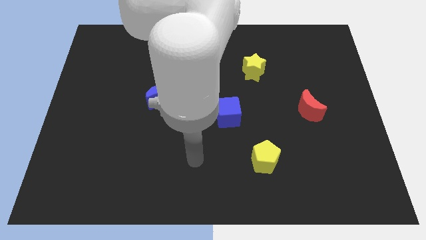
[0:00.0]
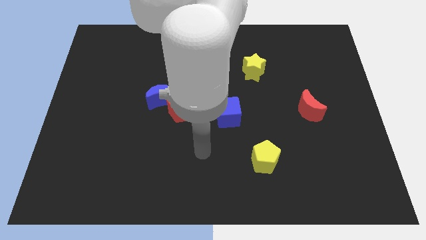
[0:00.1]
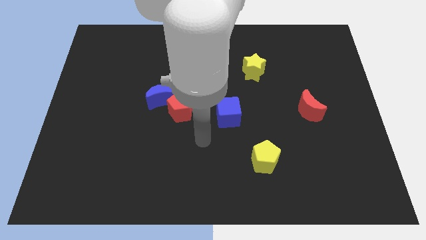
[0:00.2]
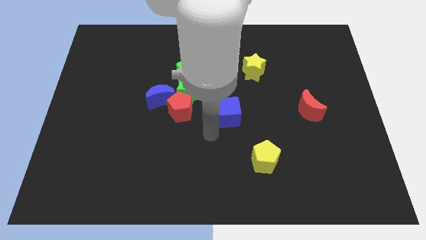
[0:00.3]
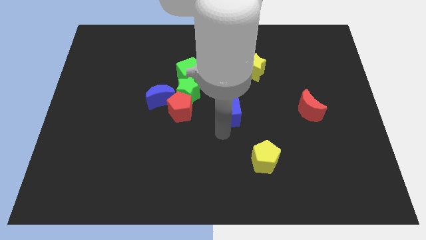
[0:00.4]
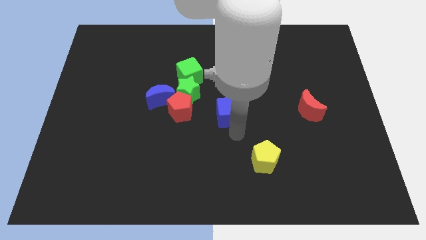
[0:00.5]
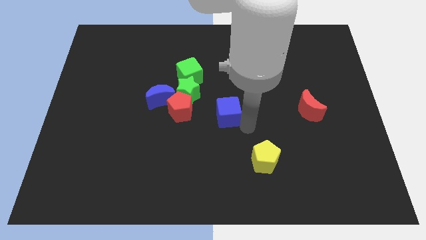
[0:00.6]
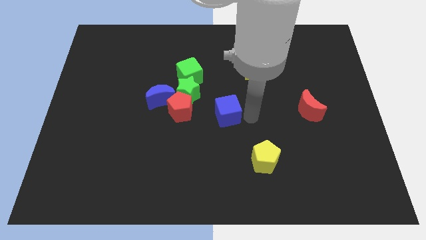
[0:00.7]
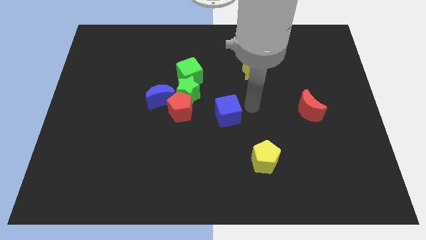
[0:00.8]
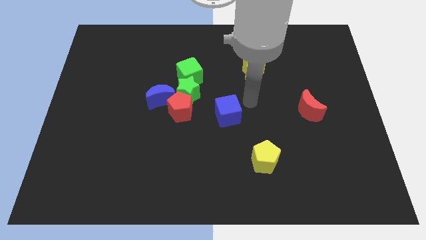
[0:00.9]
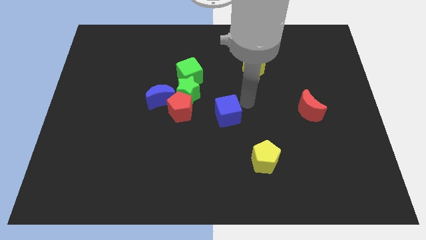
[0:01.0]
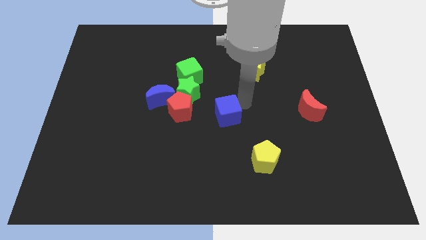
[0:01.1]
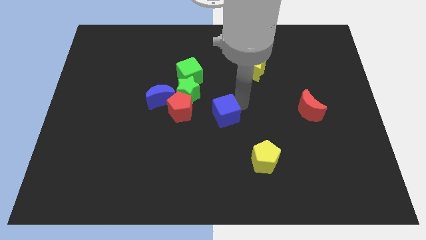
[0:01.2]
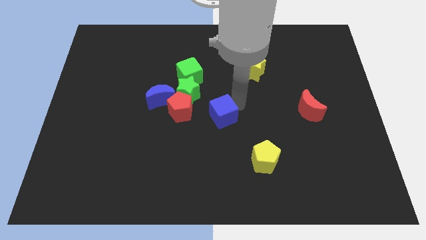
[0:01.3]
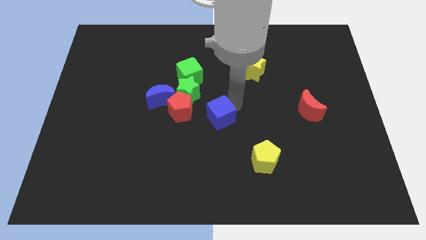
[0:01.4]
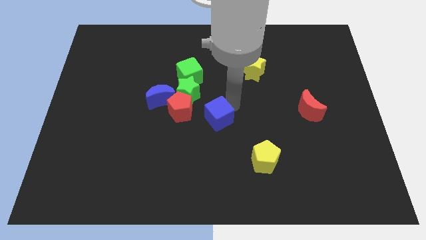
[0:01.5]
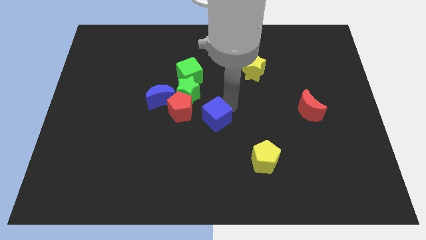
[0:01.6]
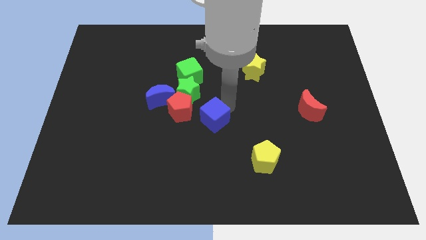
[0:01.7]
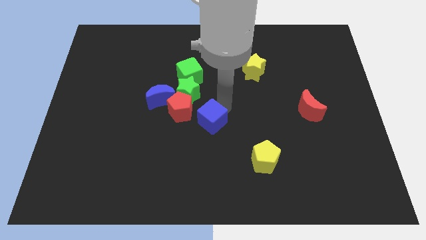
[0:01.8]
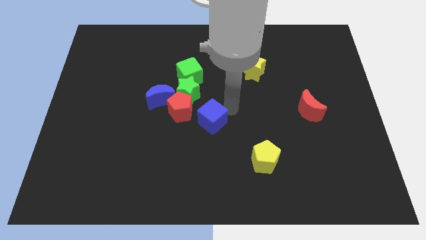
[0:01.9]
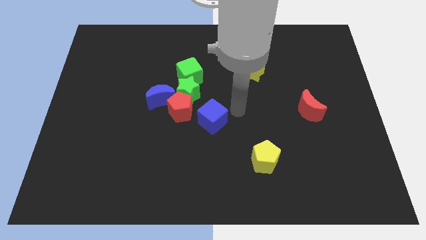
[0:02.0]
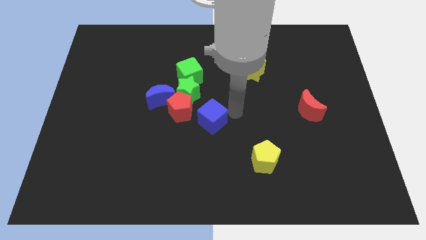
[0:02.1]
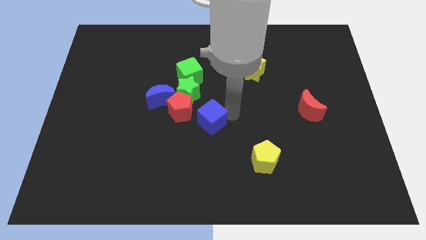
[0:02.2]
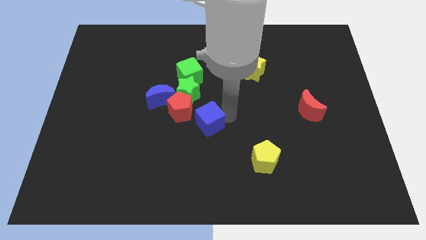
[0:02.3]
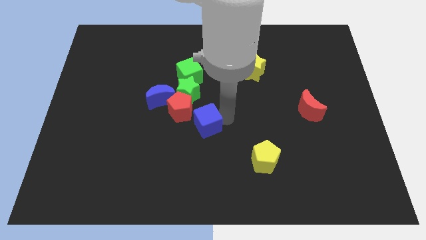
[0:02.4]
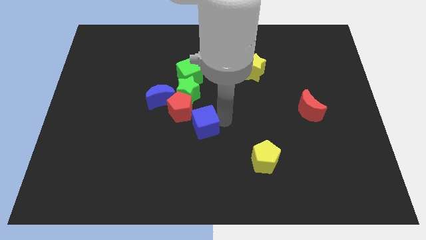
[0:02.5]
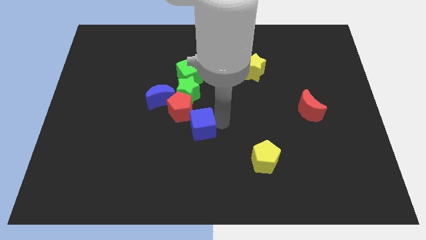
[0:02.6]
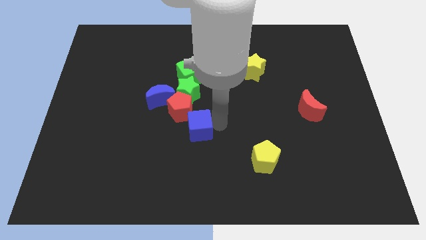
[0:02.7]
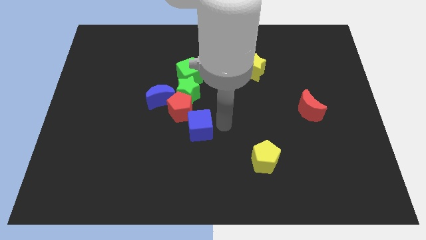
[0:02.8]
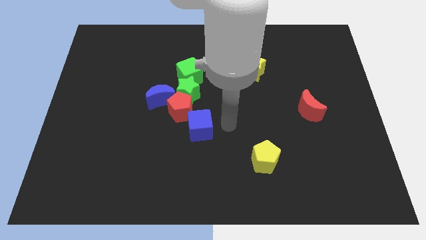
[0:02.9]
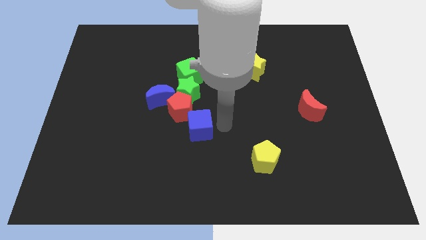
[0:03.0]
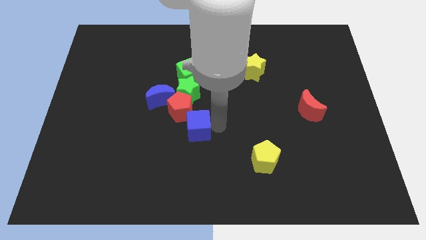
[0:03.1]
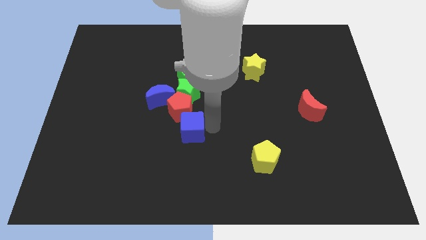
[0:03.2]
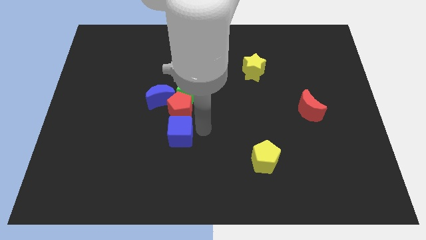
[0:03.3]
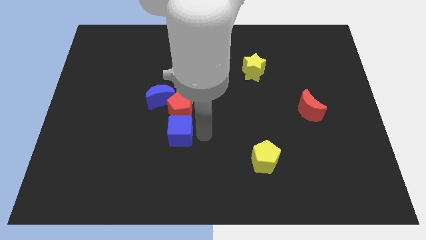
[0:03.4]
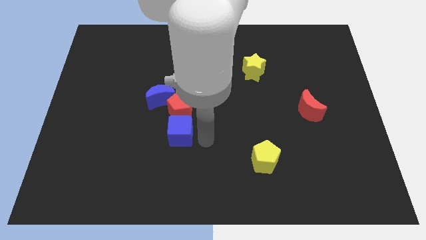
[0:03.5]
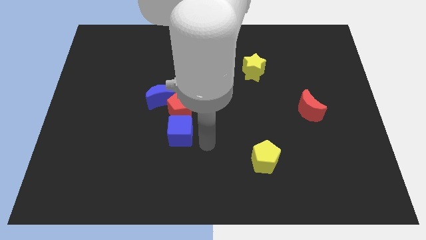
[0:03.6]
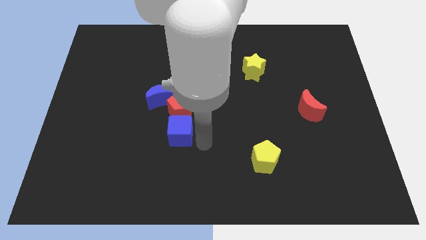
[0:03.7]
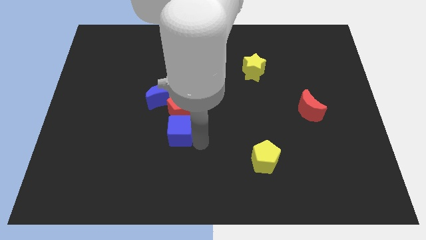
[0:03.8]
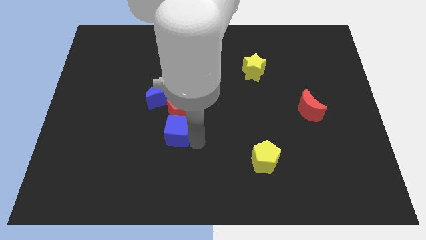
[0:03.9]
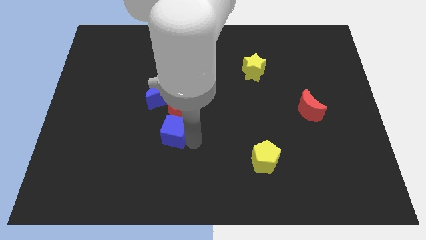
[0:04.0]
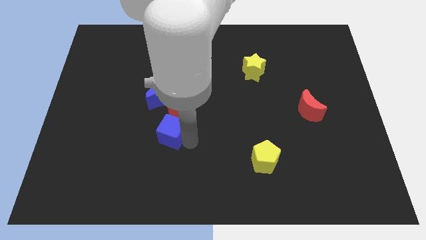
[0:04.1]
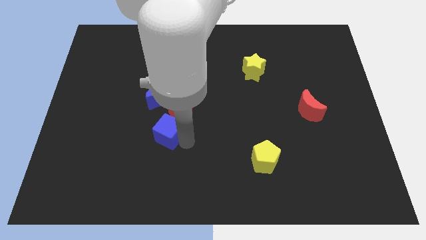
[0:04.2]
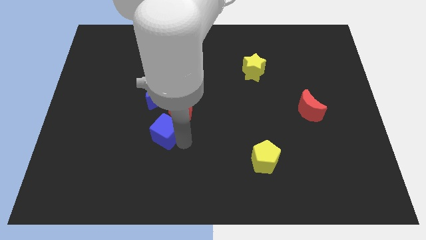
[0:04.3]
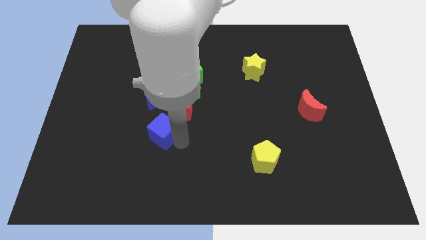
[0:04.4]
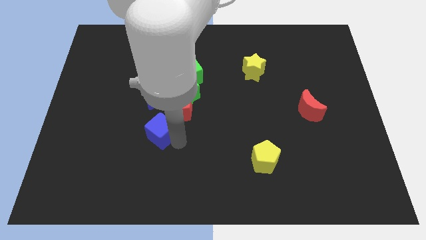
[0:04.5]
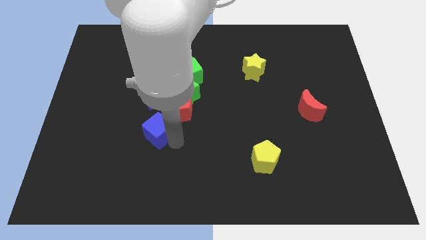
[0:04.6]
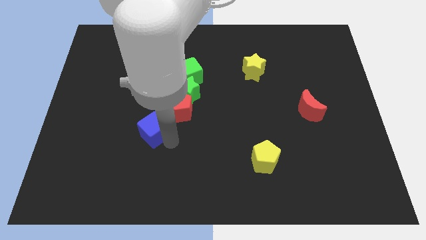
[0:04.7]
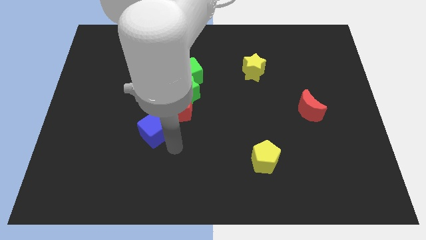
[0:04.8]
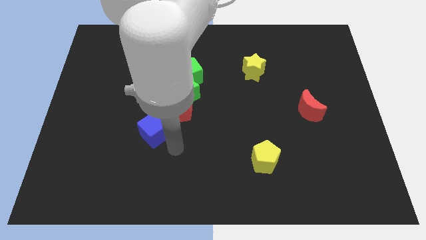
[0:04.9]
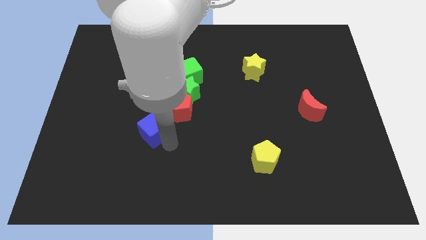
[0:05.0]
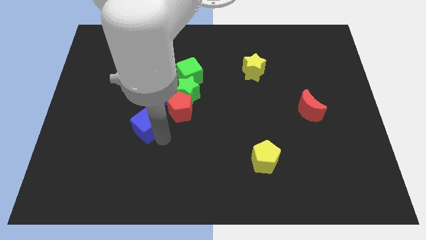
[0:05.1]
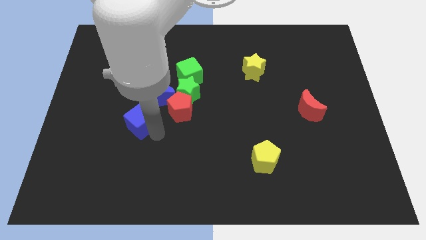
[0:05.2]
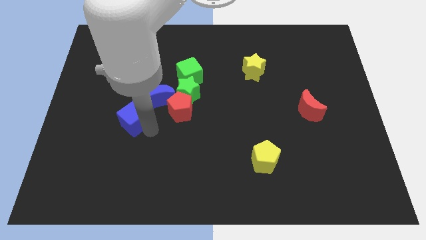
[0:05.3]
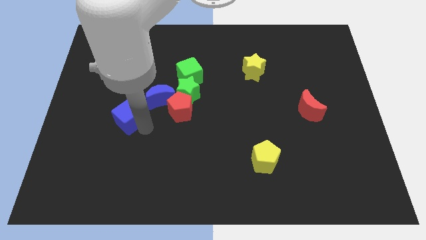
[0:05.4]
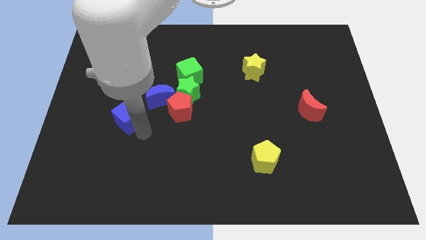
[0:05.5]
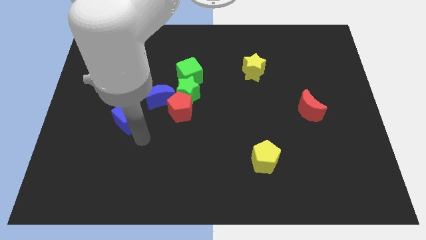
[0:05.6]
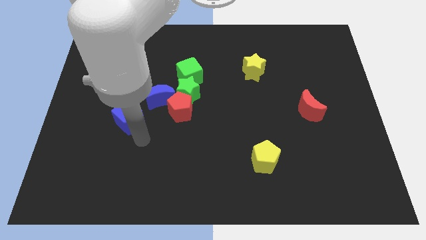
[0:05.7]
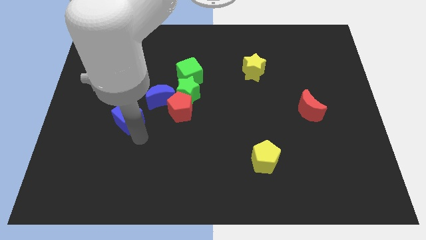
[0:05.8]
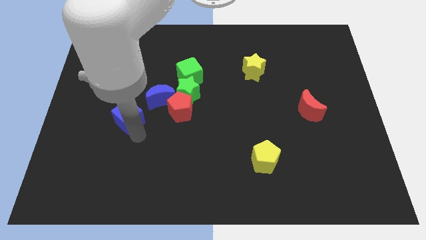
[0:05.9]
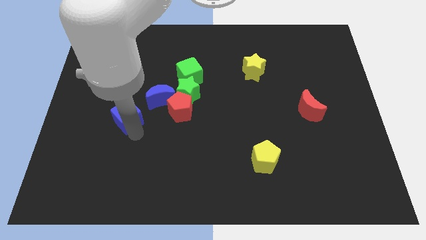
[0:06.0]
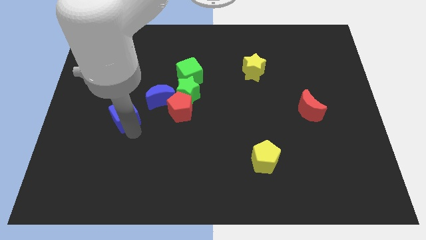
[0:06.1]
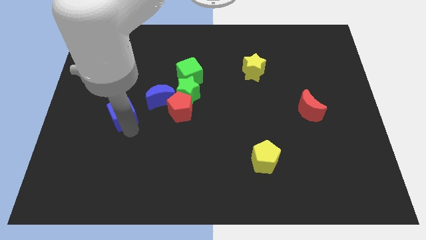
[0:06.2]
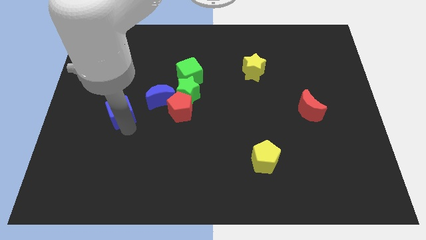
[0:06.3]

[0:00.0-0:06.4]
put the blue cube left of the blue moon

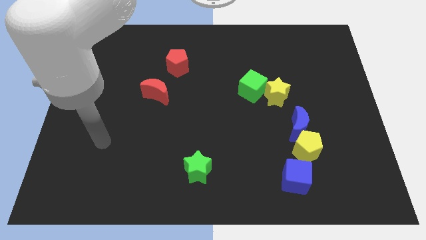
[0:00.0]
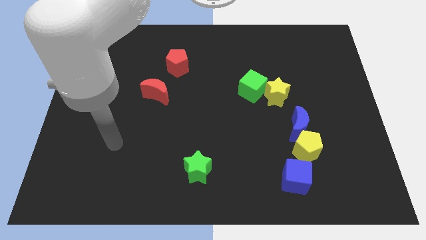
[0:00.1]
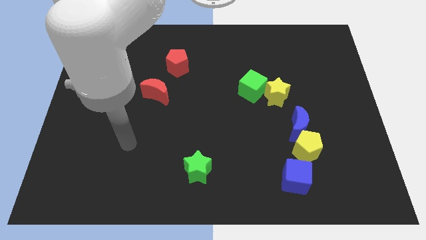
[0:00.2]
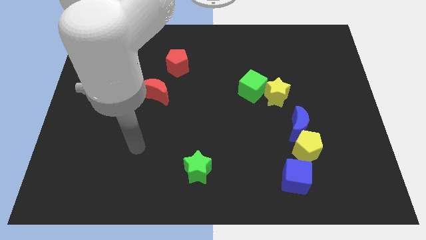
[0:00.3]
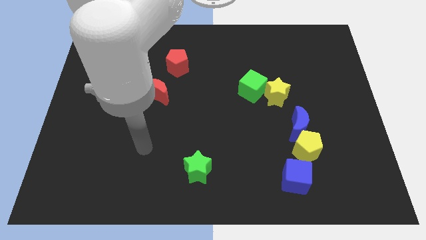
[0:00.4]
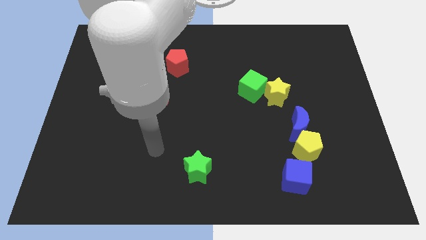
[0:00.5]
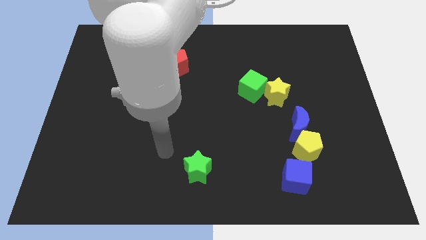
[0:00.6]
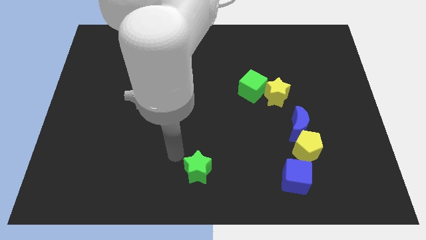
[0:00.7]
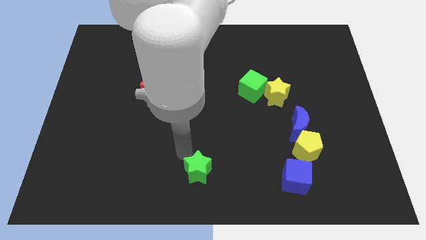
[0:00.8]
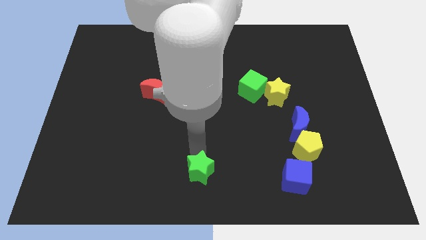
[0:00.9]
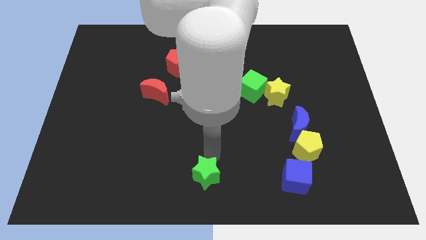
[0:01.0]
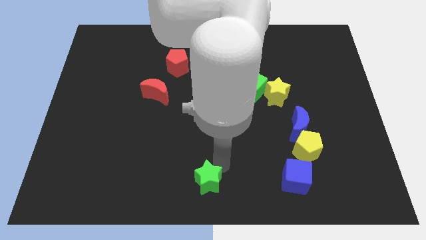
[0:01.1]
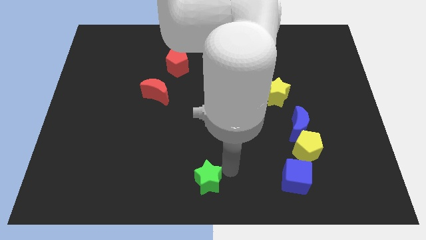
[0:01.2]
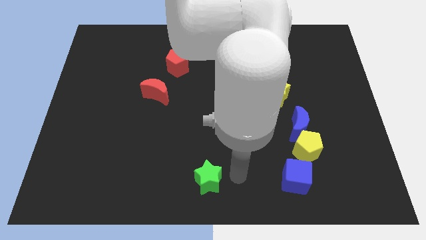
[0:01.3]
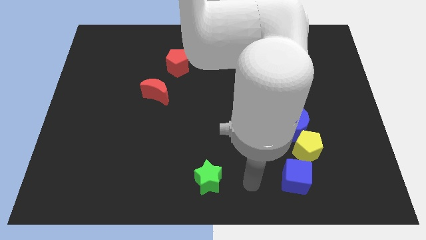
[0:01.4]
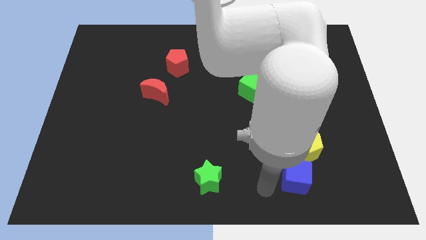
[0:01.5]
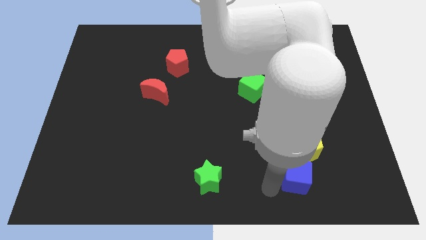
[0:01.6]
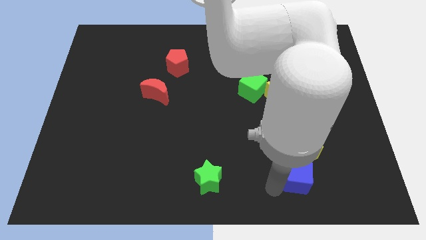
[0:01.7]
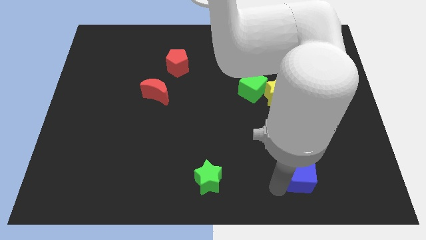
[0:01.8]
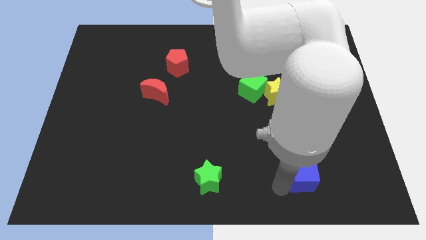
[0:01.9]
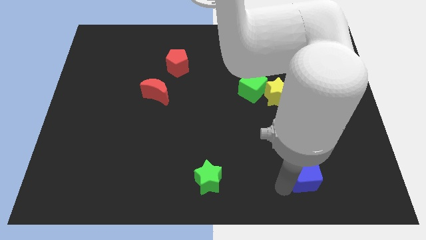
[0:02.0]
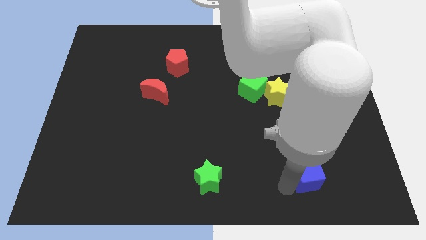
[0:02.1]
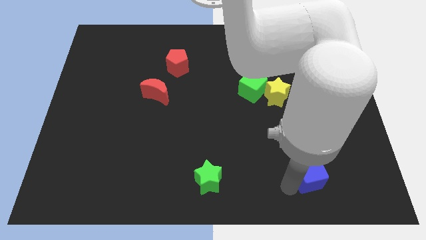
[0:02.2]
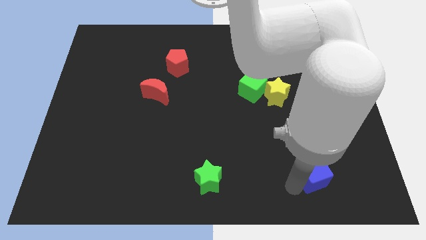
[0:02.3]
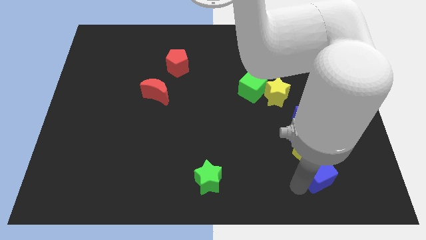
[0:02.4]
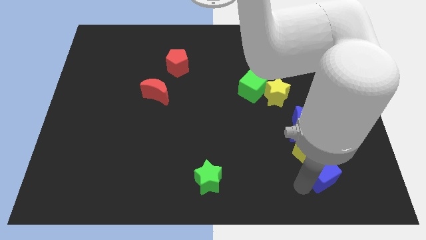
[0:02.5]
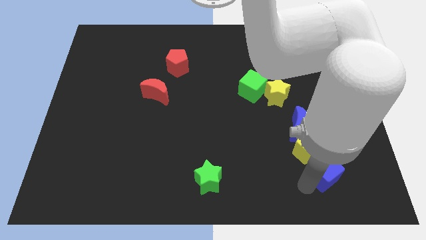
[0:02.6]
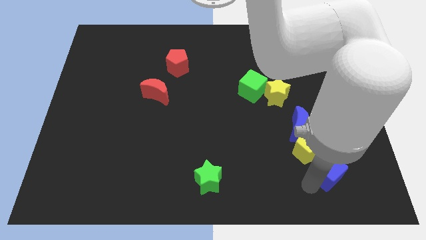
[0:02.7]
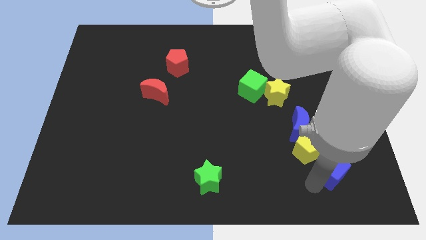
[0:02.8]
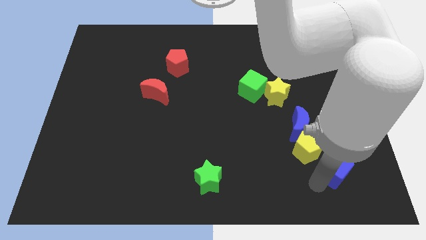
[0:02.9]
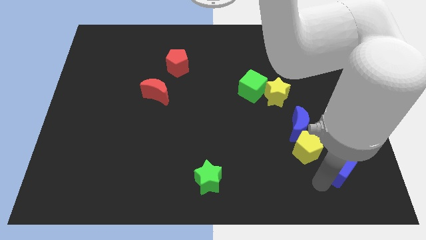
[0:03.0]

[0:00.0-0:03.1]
push the blue cube to the bottom right side of the blue moon
